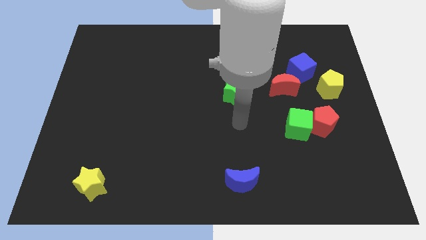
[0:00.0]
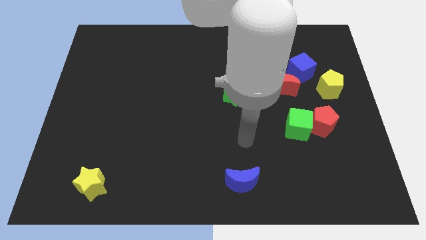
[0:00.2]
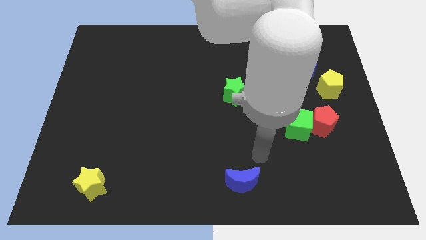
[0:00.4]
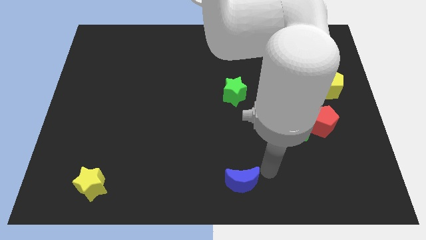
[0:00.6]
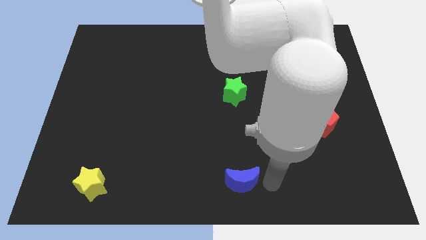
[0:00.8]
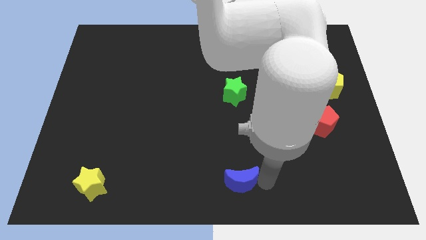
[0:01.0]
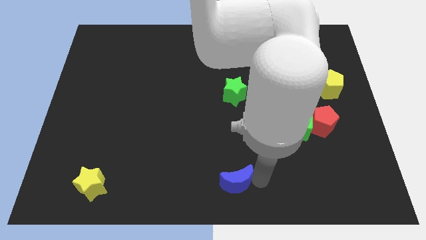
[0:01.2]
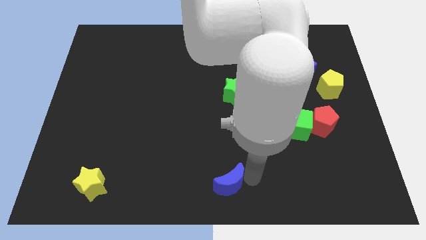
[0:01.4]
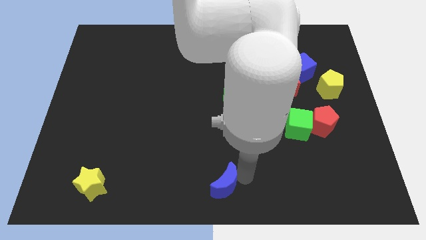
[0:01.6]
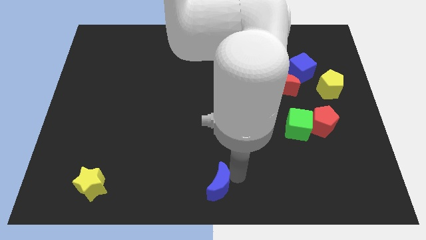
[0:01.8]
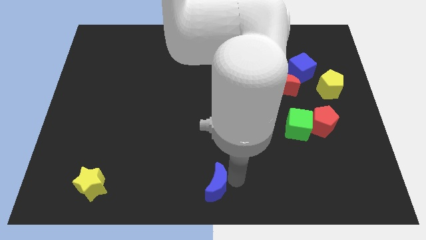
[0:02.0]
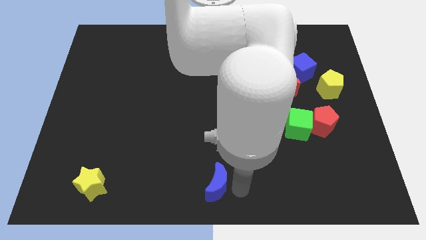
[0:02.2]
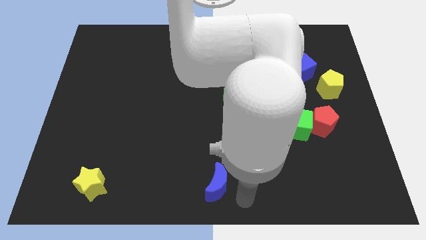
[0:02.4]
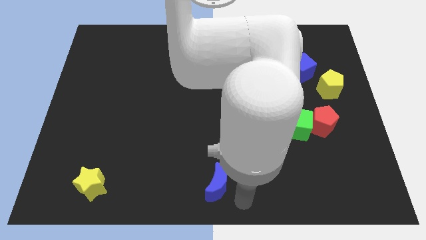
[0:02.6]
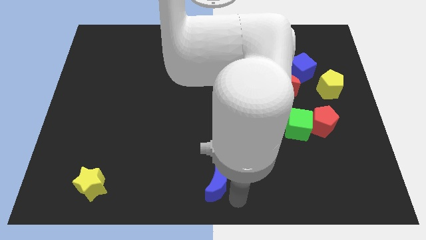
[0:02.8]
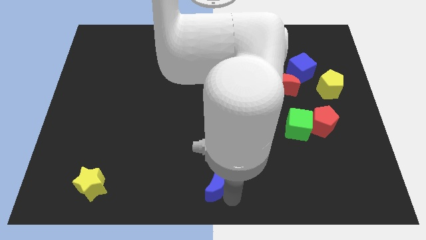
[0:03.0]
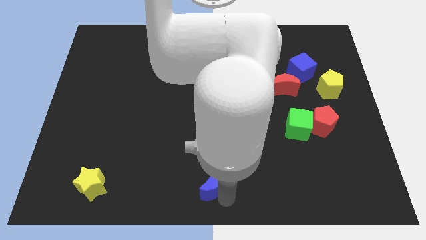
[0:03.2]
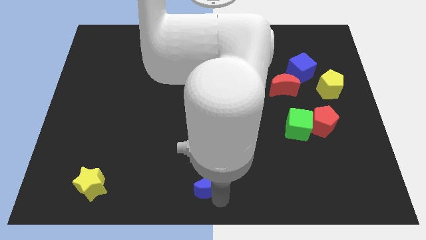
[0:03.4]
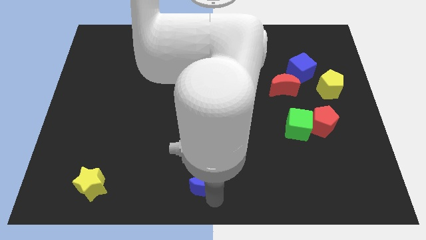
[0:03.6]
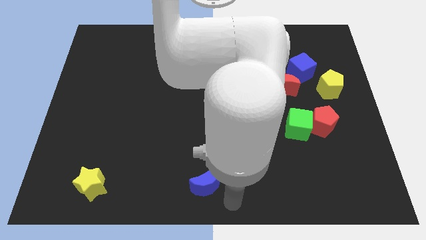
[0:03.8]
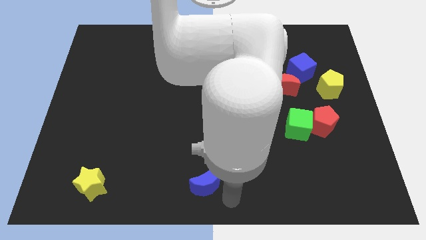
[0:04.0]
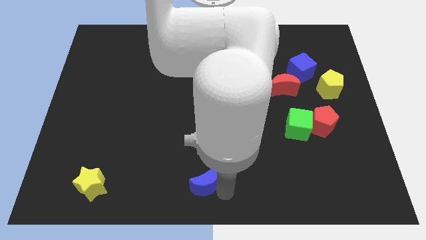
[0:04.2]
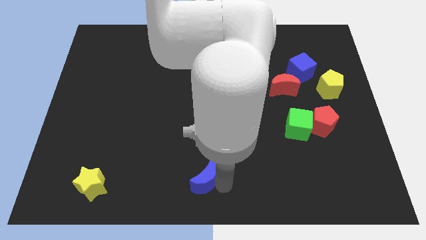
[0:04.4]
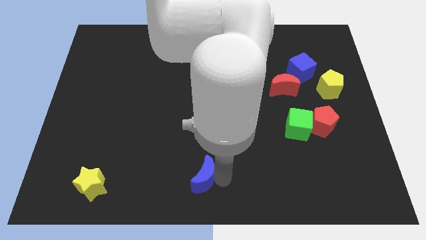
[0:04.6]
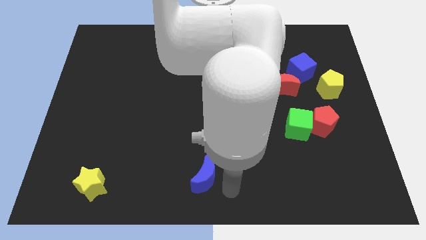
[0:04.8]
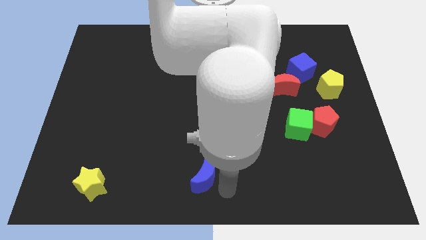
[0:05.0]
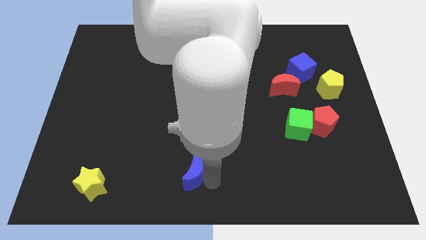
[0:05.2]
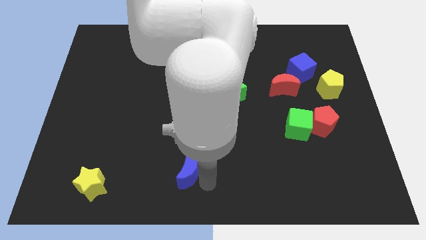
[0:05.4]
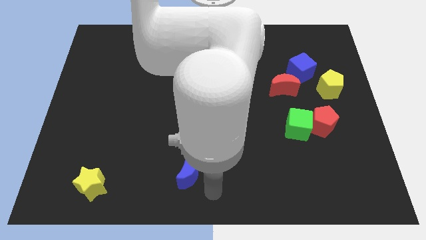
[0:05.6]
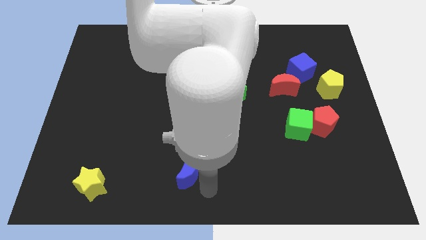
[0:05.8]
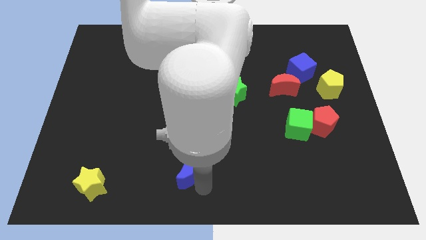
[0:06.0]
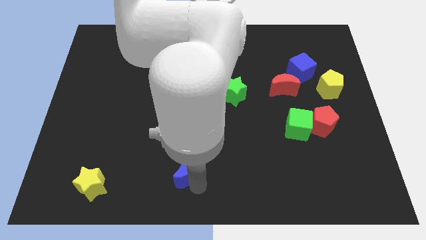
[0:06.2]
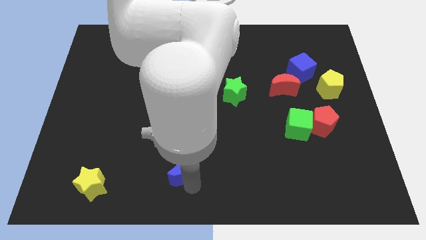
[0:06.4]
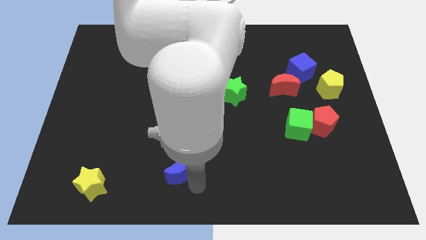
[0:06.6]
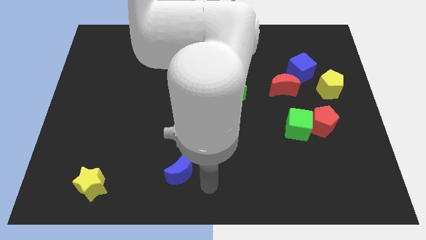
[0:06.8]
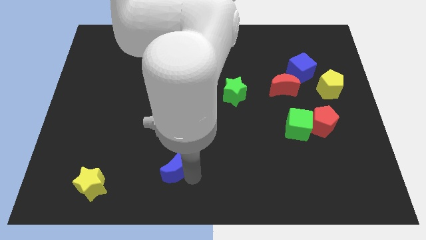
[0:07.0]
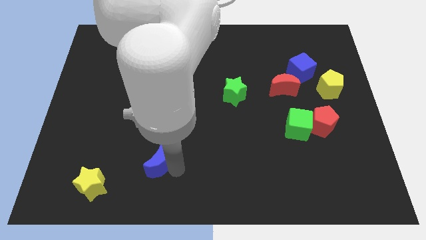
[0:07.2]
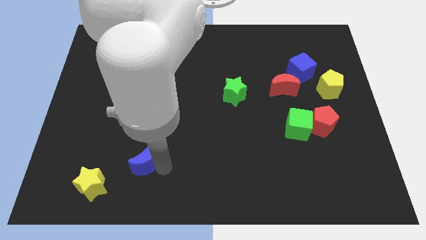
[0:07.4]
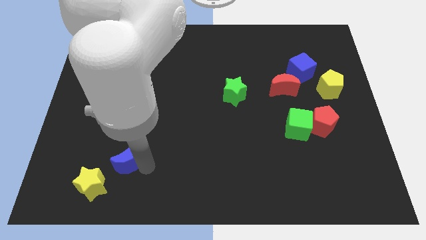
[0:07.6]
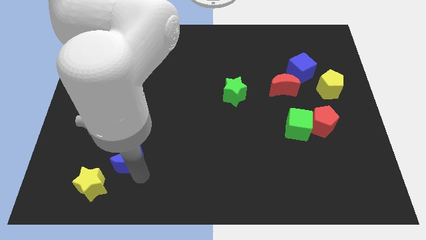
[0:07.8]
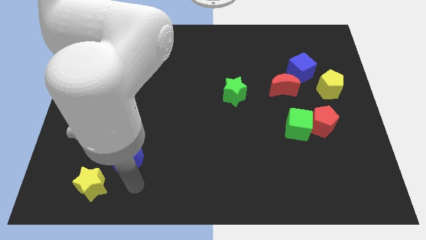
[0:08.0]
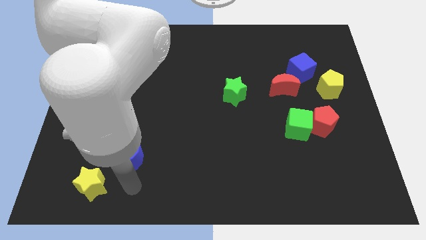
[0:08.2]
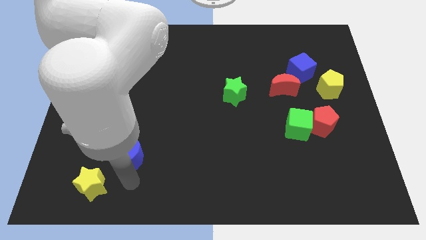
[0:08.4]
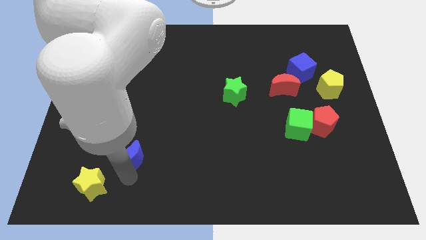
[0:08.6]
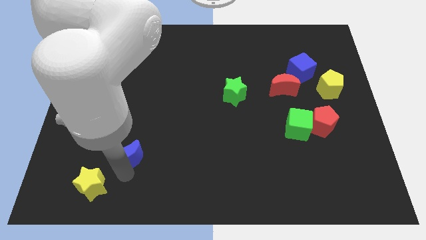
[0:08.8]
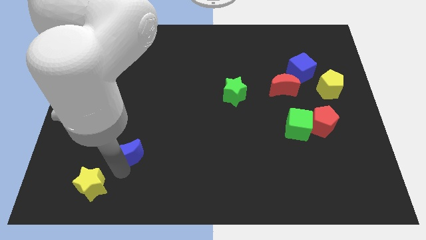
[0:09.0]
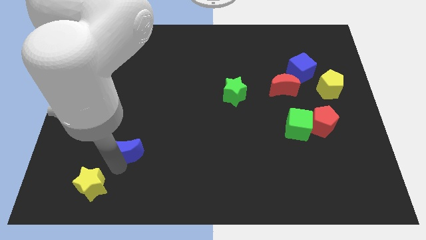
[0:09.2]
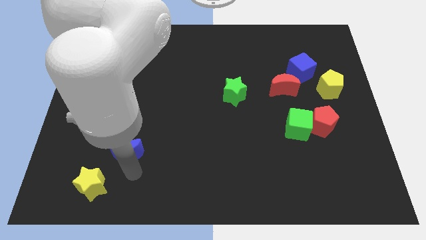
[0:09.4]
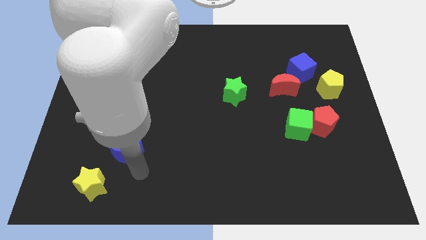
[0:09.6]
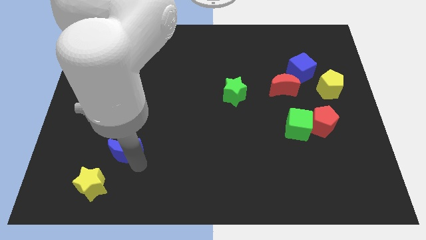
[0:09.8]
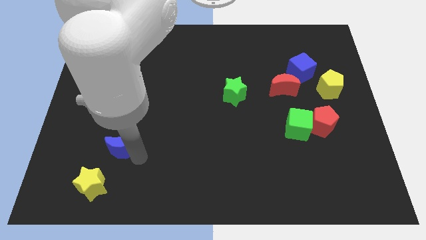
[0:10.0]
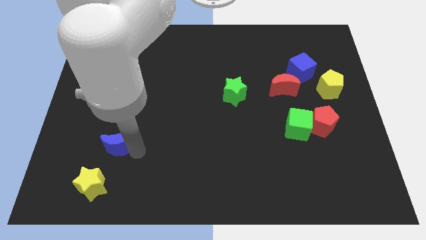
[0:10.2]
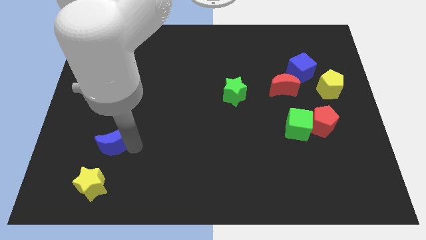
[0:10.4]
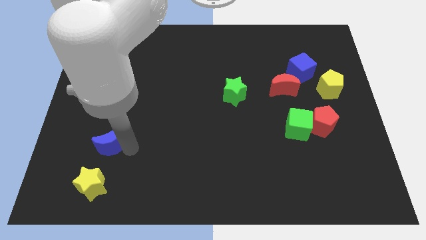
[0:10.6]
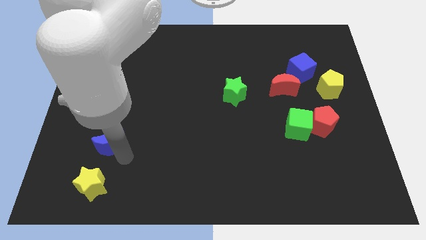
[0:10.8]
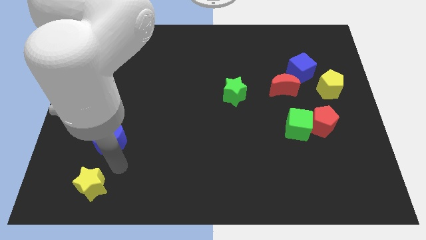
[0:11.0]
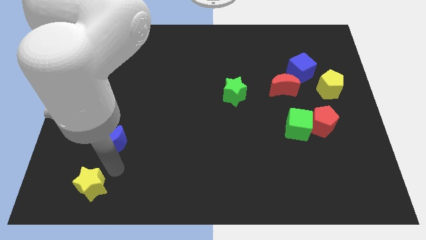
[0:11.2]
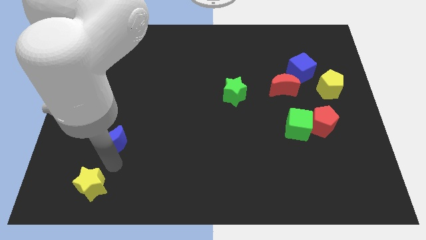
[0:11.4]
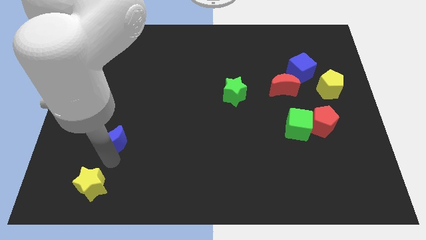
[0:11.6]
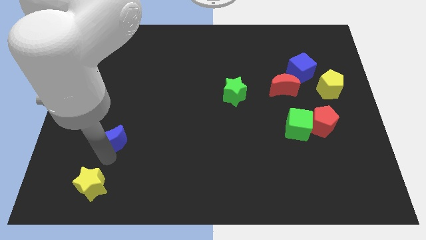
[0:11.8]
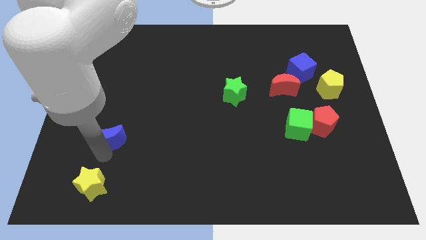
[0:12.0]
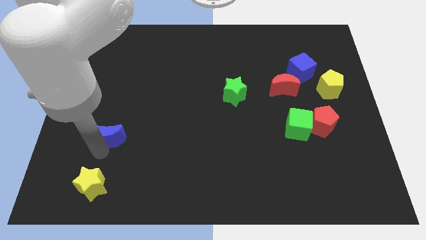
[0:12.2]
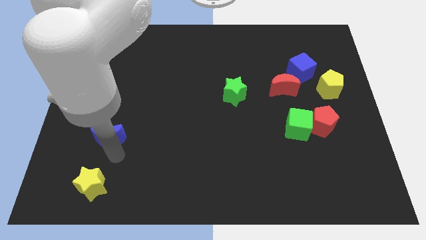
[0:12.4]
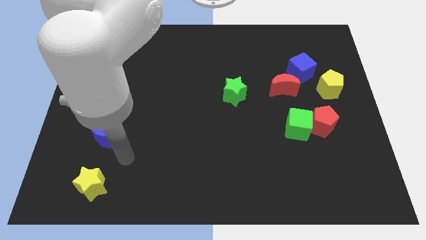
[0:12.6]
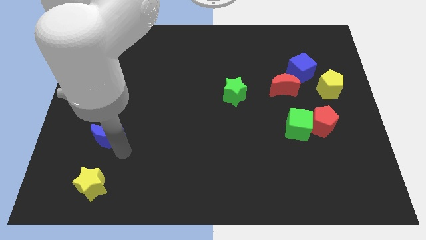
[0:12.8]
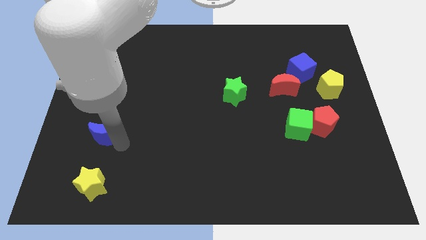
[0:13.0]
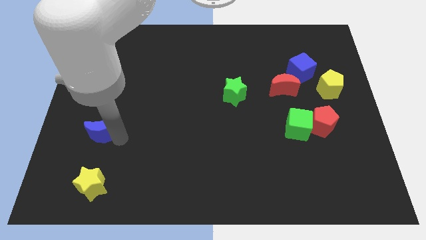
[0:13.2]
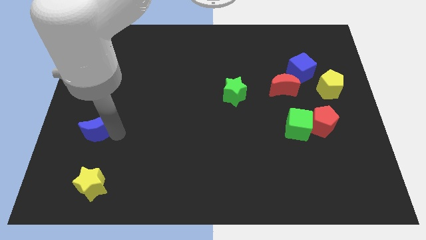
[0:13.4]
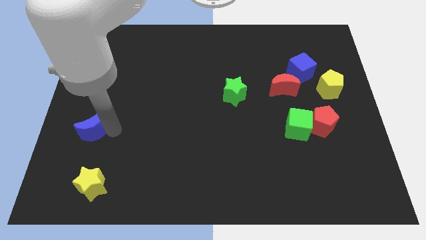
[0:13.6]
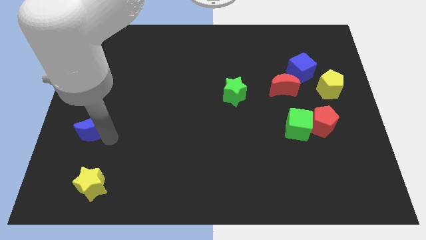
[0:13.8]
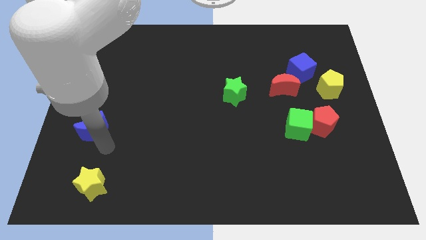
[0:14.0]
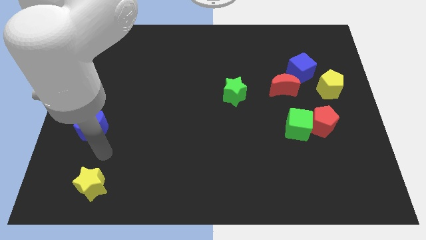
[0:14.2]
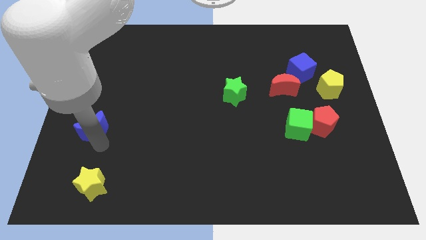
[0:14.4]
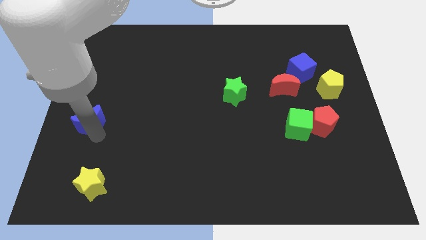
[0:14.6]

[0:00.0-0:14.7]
move the blue moon to the left side
